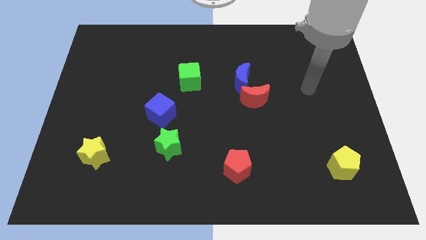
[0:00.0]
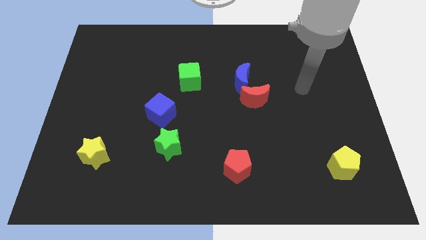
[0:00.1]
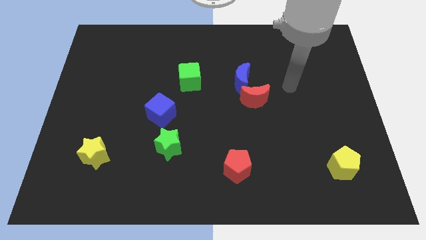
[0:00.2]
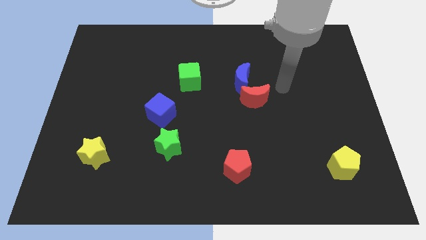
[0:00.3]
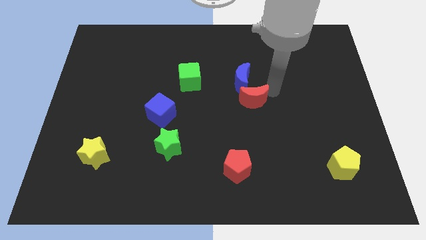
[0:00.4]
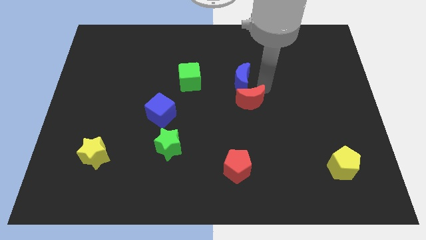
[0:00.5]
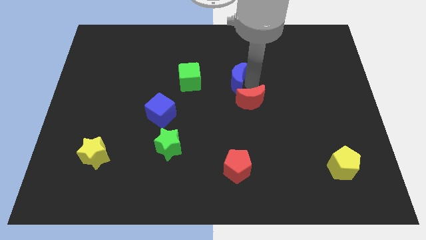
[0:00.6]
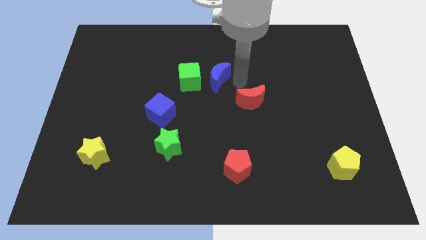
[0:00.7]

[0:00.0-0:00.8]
pull the red moon apart from the blue moon

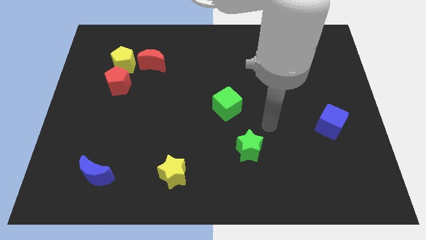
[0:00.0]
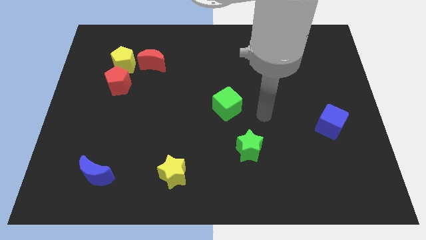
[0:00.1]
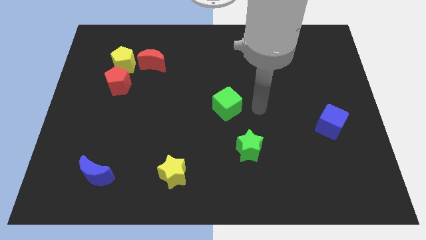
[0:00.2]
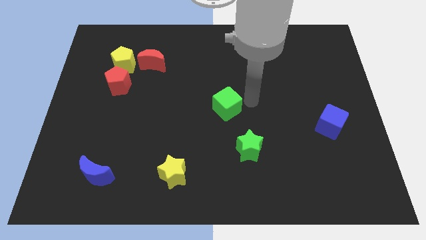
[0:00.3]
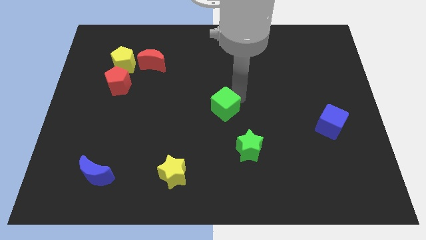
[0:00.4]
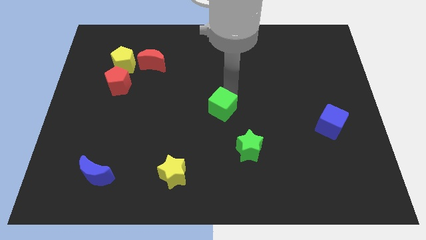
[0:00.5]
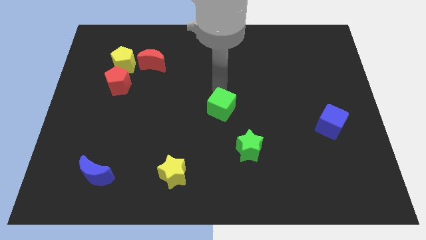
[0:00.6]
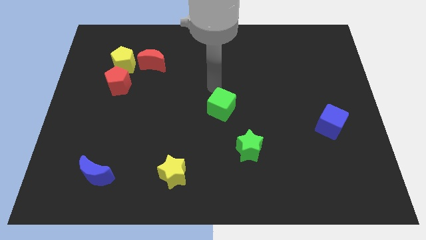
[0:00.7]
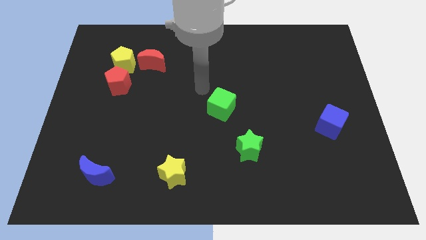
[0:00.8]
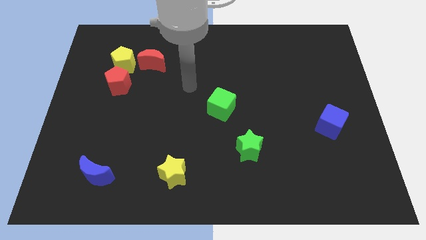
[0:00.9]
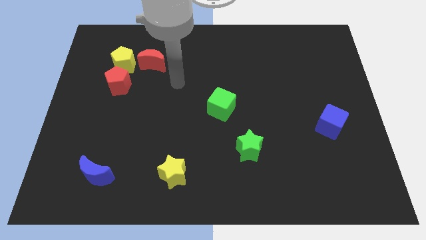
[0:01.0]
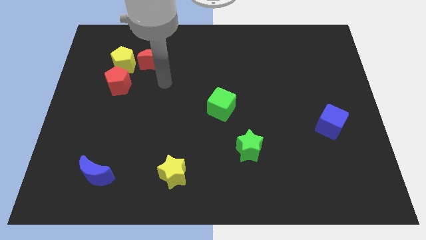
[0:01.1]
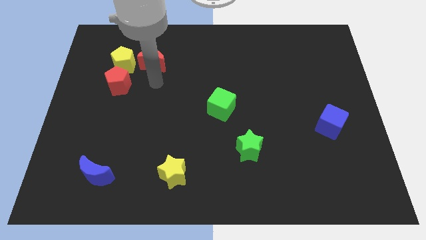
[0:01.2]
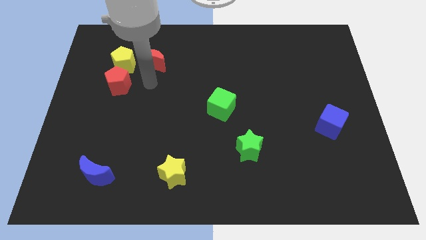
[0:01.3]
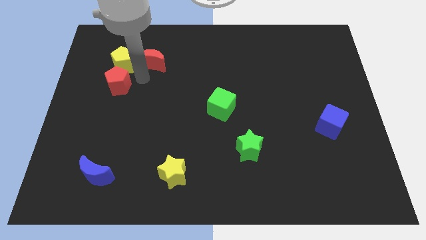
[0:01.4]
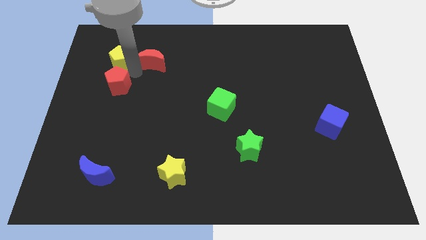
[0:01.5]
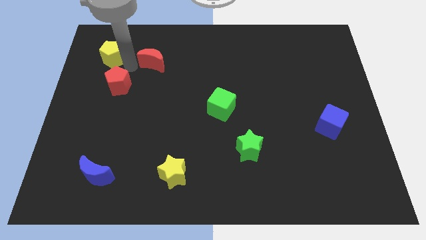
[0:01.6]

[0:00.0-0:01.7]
move the red pentagon away from the yellow pentagon

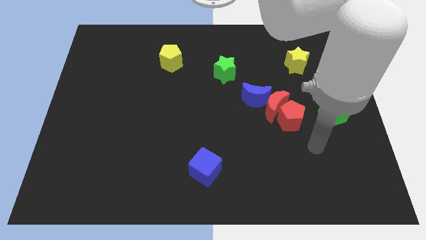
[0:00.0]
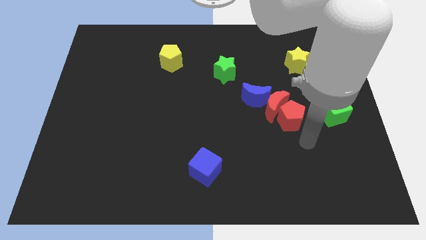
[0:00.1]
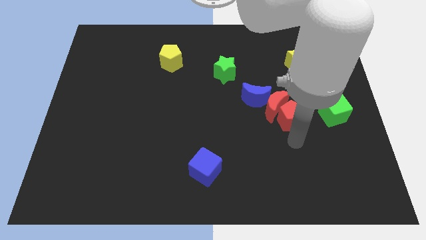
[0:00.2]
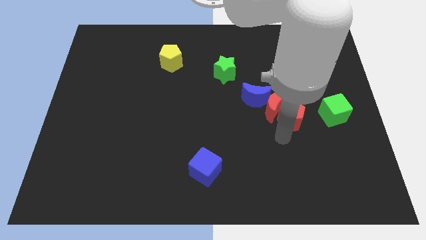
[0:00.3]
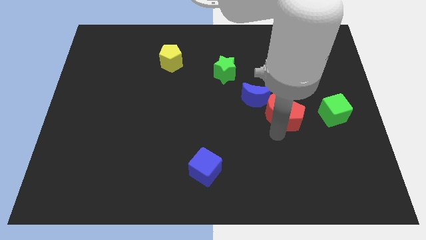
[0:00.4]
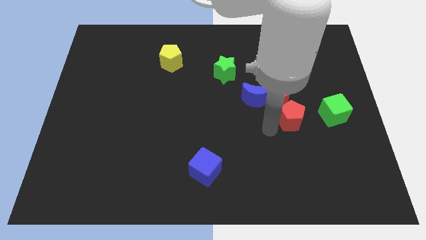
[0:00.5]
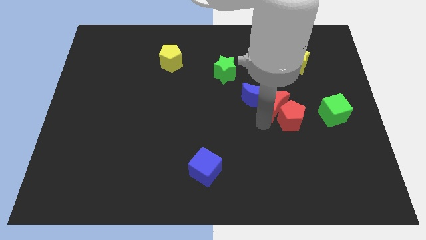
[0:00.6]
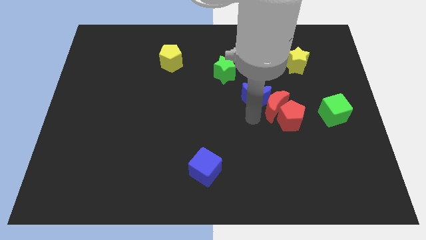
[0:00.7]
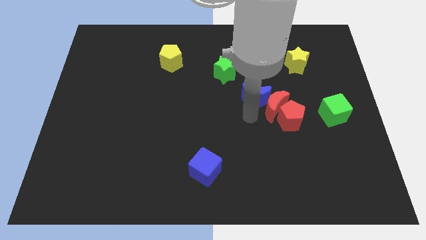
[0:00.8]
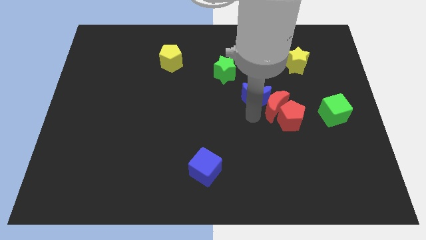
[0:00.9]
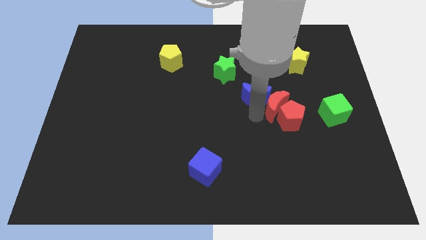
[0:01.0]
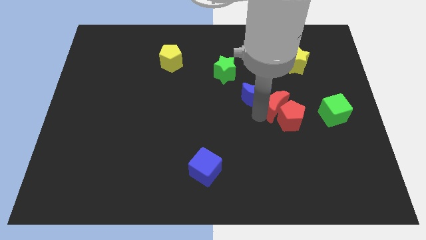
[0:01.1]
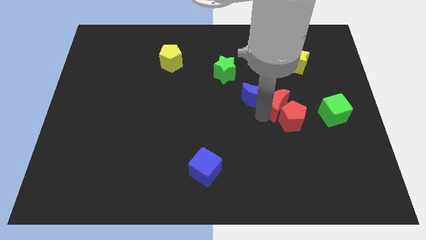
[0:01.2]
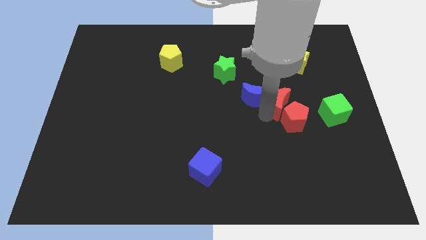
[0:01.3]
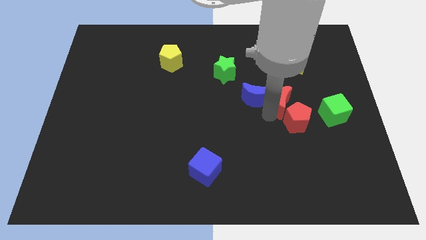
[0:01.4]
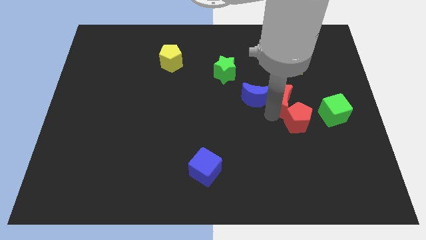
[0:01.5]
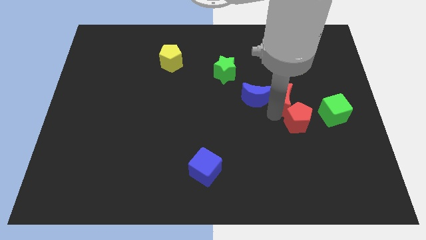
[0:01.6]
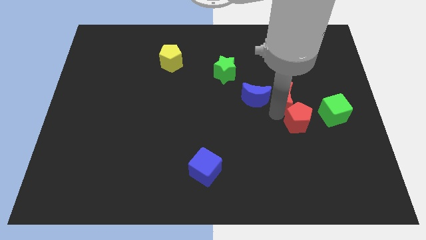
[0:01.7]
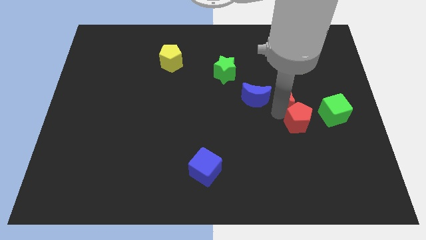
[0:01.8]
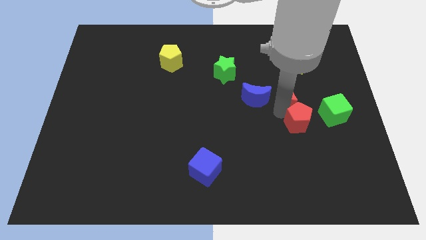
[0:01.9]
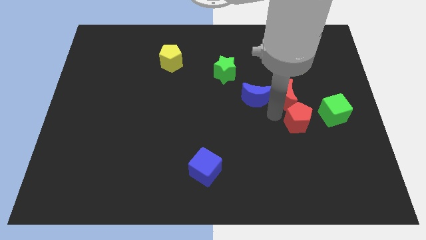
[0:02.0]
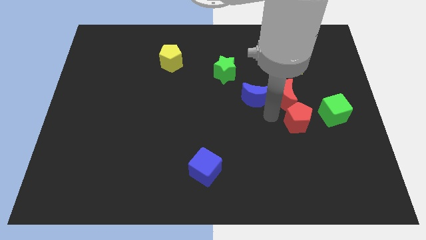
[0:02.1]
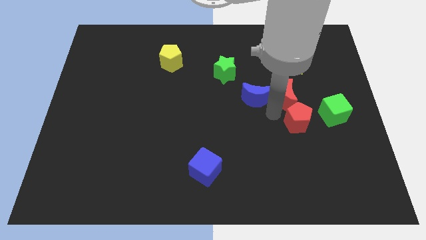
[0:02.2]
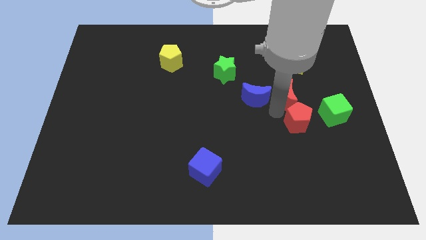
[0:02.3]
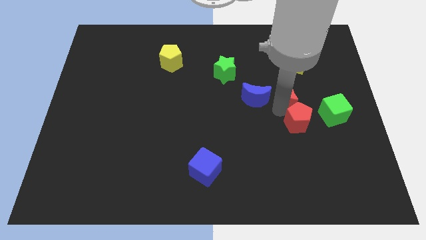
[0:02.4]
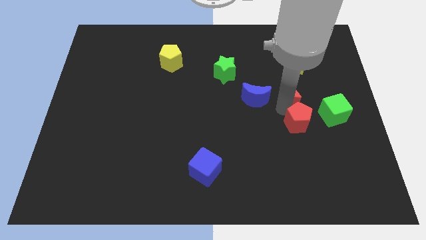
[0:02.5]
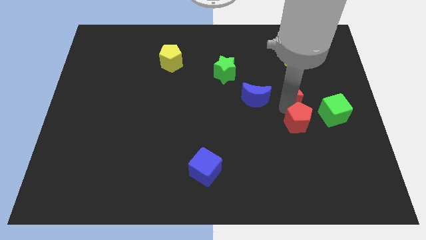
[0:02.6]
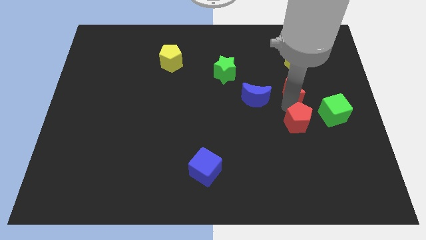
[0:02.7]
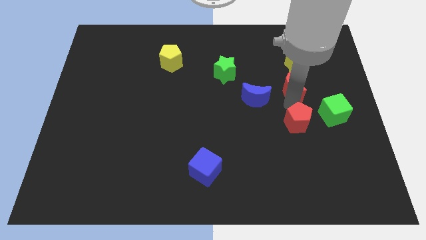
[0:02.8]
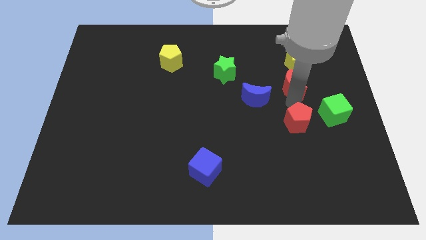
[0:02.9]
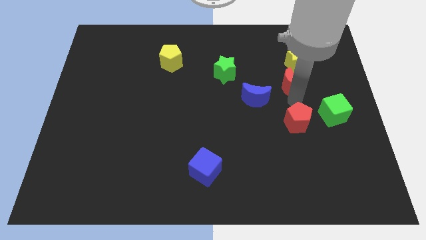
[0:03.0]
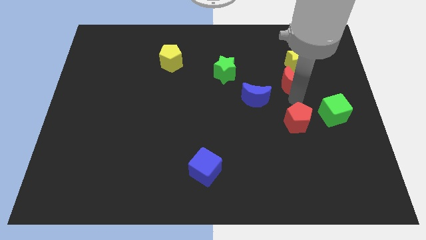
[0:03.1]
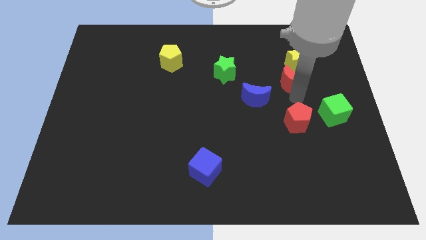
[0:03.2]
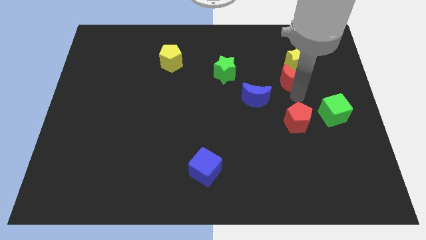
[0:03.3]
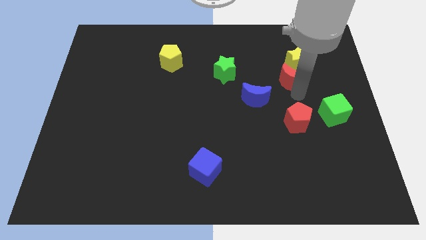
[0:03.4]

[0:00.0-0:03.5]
move the red moon away from the red pentagon and blue moon

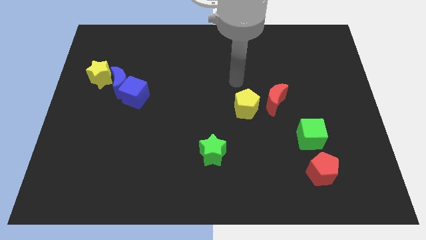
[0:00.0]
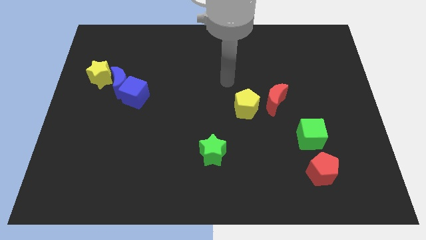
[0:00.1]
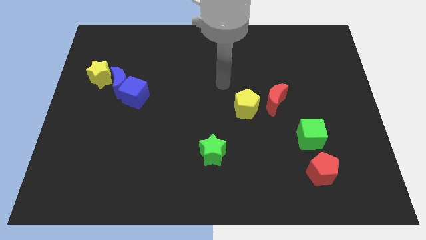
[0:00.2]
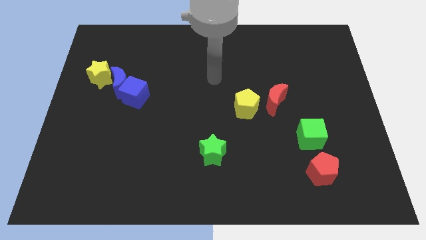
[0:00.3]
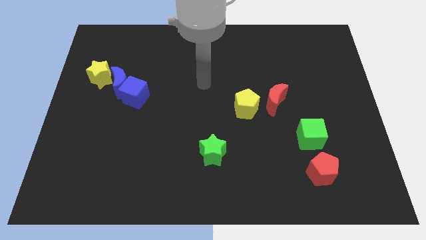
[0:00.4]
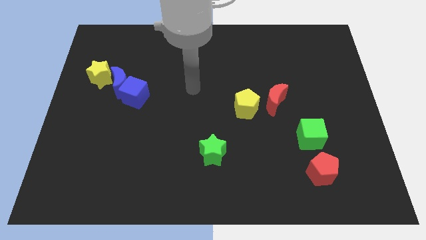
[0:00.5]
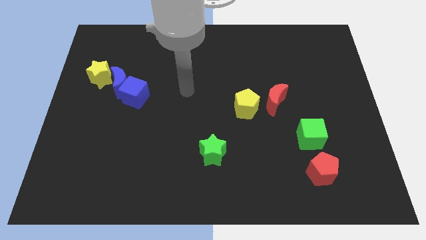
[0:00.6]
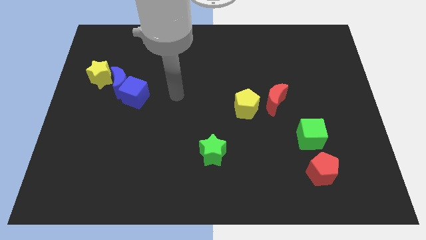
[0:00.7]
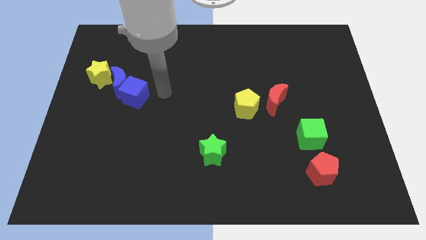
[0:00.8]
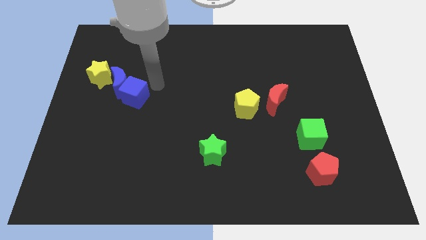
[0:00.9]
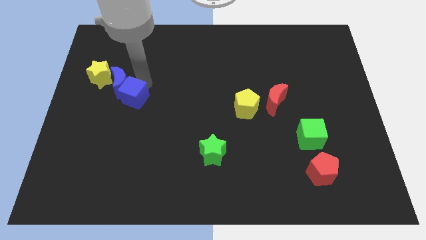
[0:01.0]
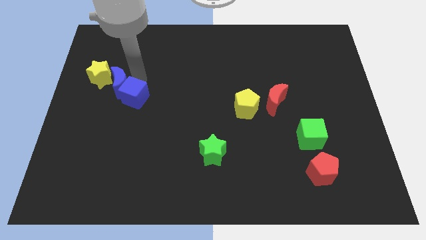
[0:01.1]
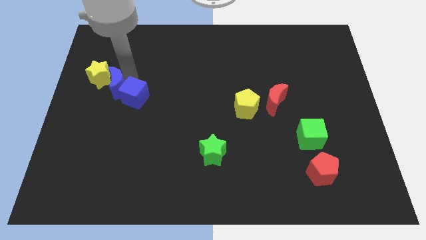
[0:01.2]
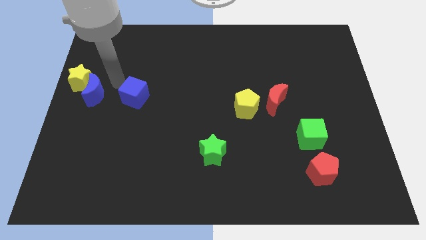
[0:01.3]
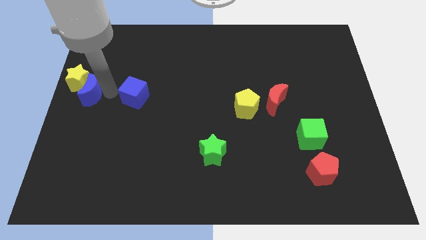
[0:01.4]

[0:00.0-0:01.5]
pull the blue cube apart from the blue moon

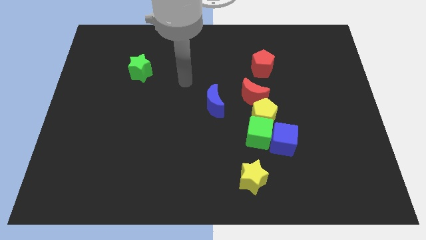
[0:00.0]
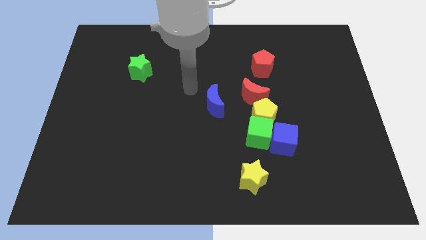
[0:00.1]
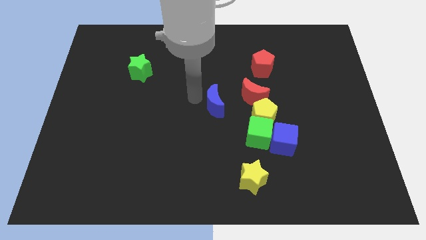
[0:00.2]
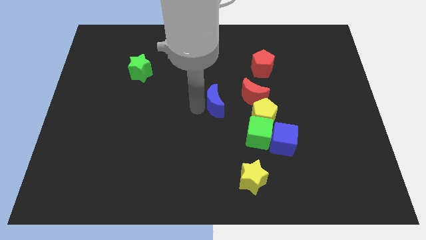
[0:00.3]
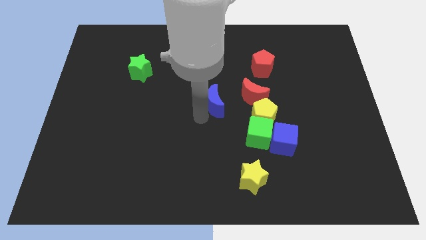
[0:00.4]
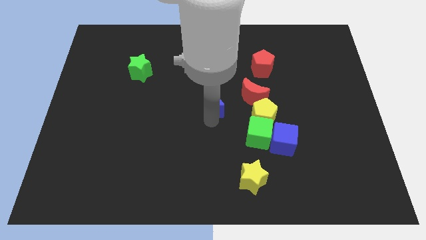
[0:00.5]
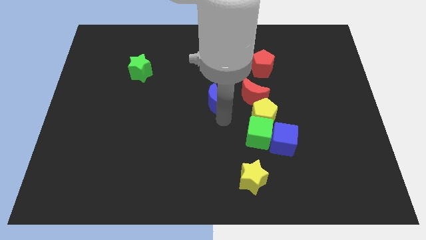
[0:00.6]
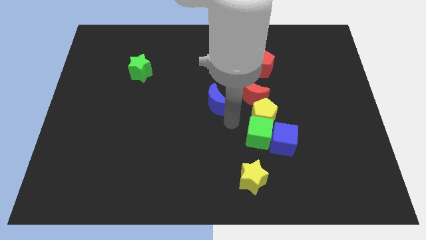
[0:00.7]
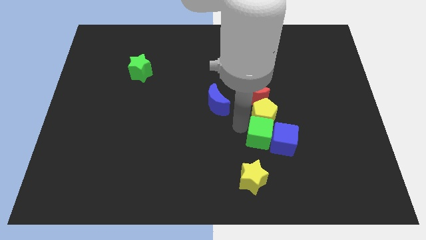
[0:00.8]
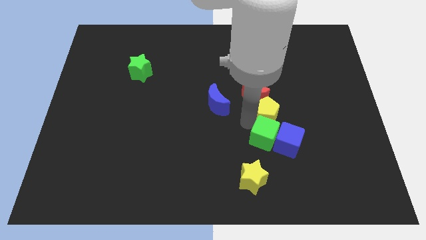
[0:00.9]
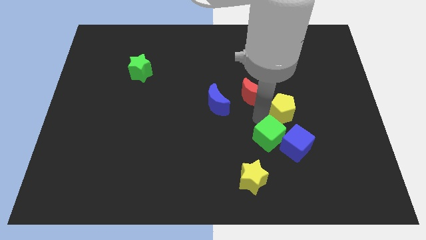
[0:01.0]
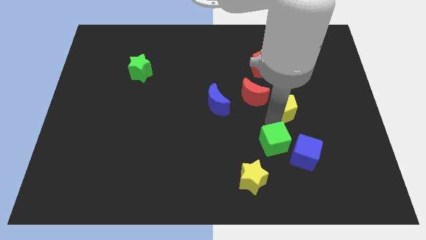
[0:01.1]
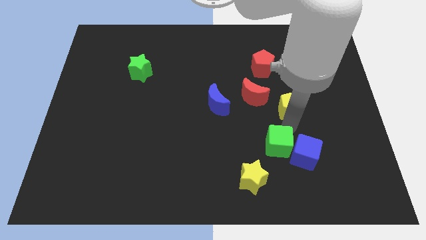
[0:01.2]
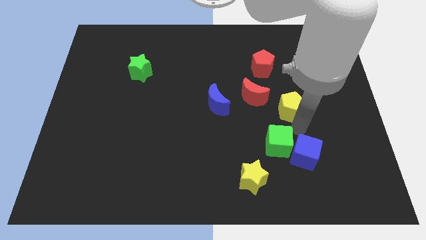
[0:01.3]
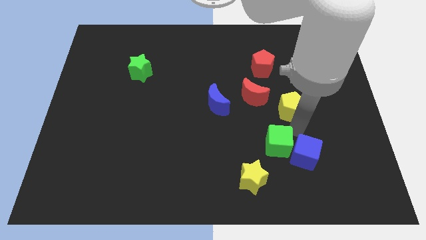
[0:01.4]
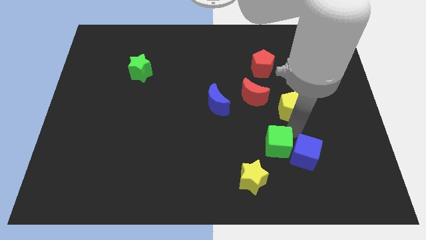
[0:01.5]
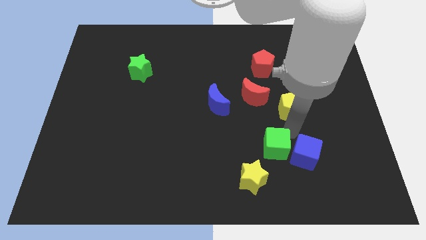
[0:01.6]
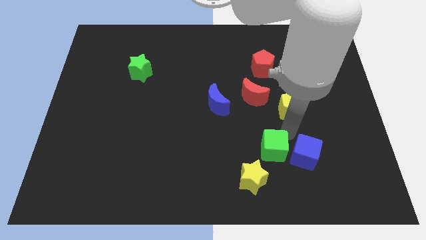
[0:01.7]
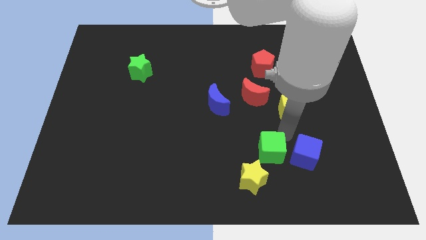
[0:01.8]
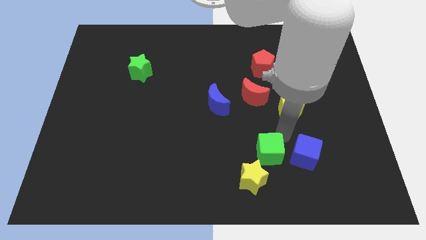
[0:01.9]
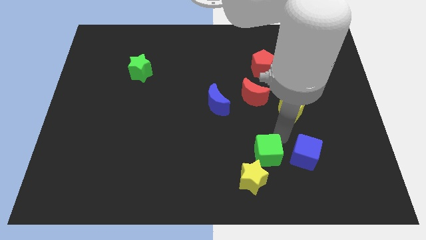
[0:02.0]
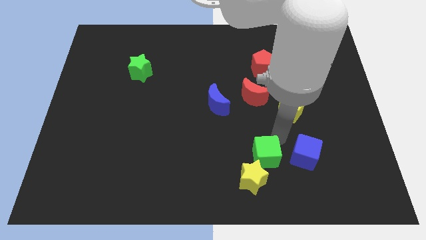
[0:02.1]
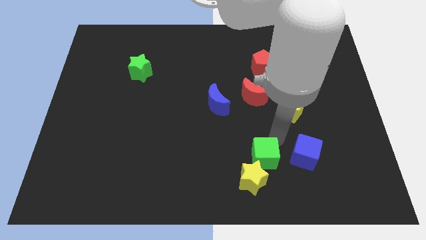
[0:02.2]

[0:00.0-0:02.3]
pull the green cube apart from the yellow pentagon and blue cube
